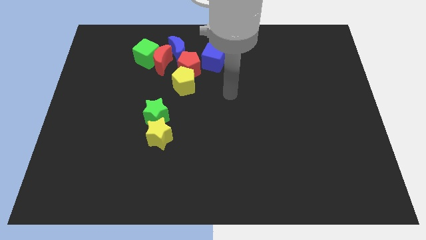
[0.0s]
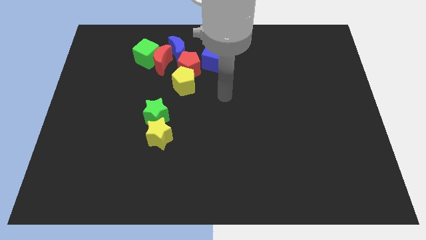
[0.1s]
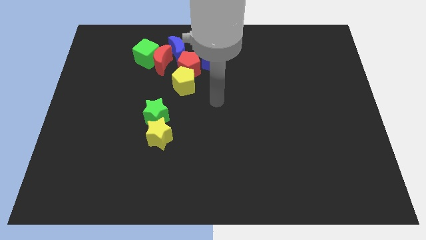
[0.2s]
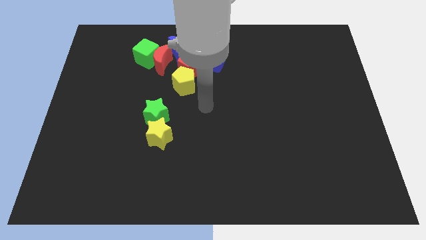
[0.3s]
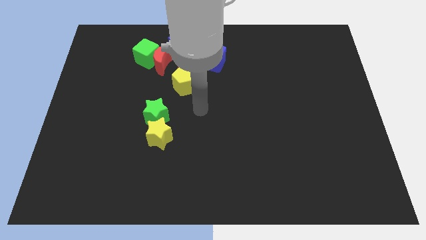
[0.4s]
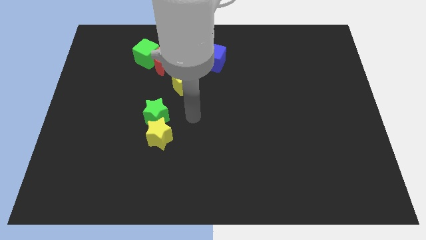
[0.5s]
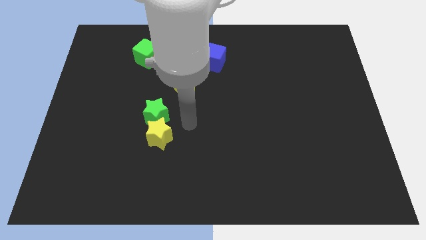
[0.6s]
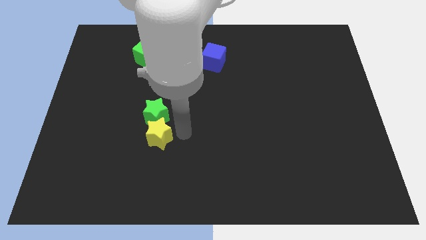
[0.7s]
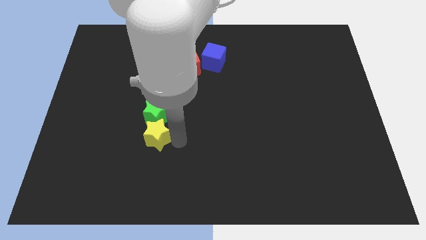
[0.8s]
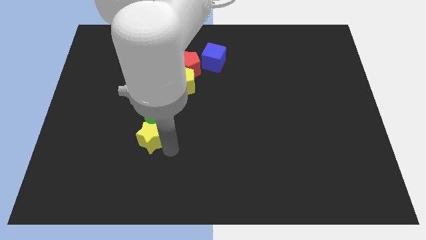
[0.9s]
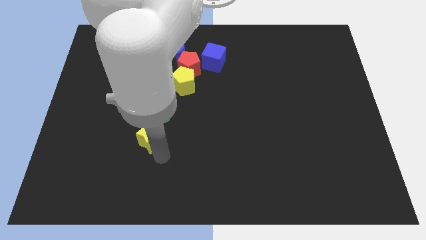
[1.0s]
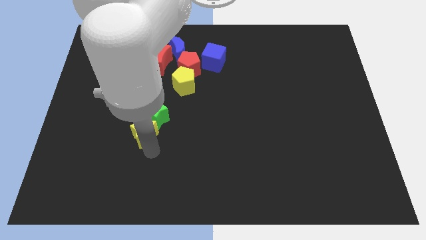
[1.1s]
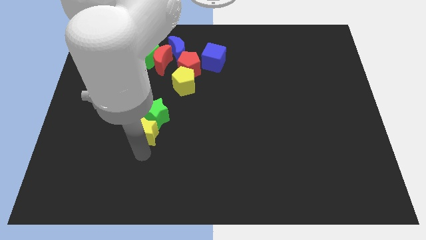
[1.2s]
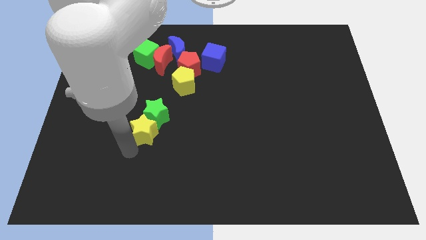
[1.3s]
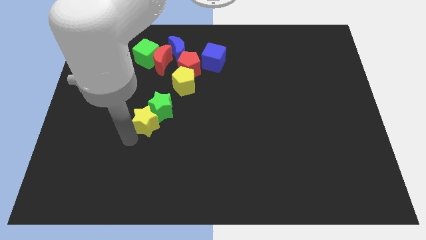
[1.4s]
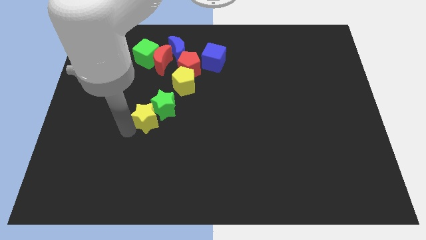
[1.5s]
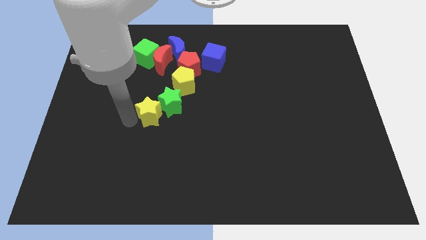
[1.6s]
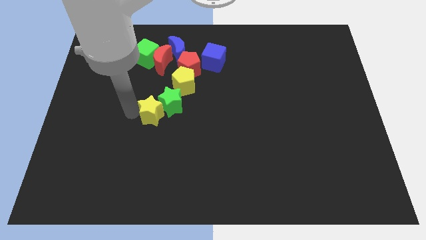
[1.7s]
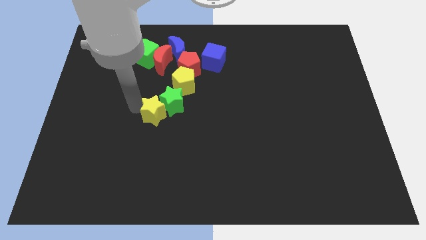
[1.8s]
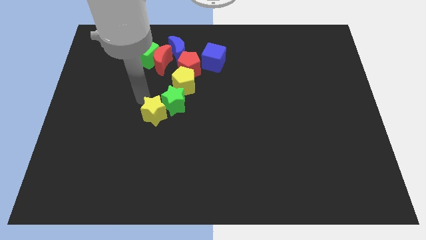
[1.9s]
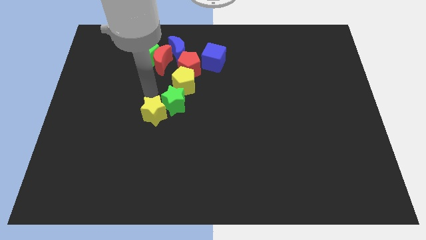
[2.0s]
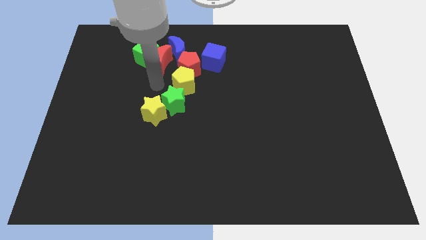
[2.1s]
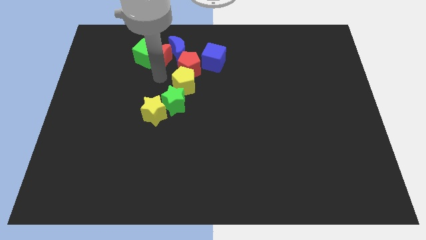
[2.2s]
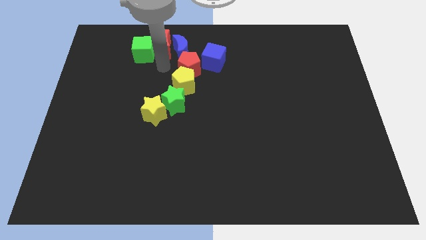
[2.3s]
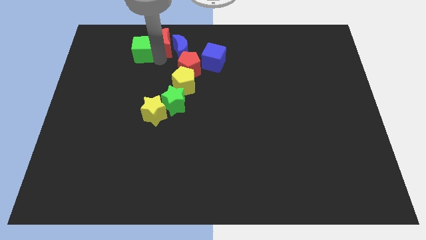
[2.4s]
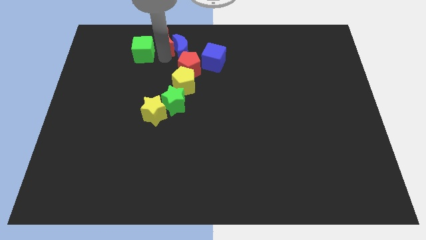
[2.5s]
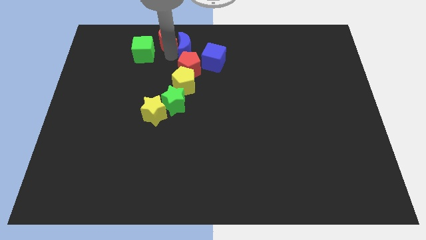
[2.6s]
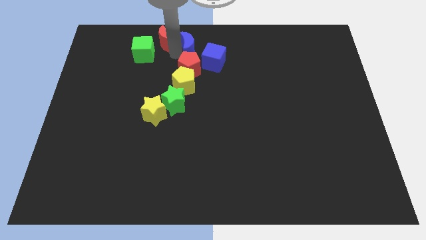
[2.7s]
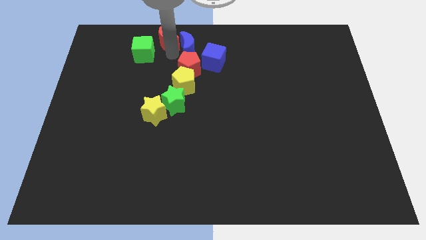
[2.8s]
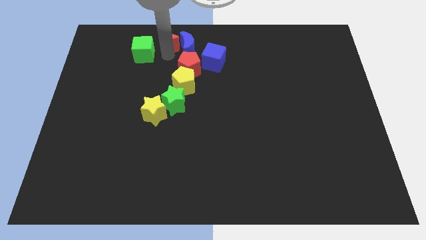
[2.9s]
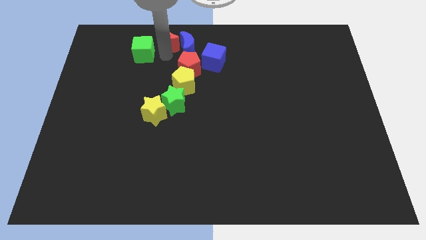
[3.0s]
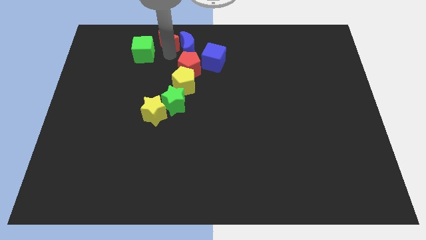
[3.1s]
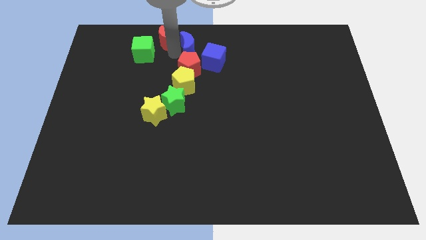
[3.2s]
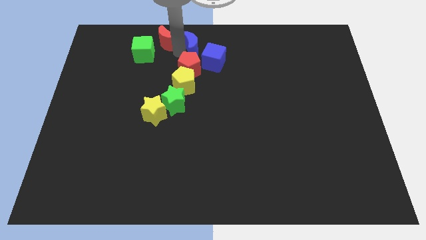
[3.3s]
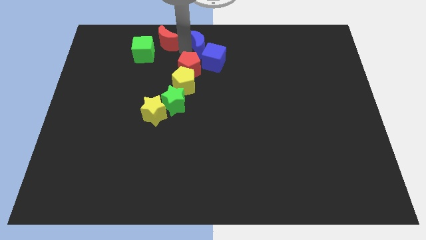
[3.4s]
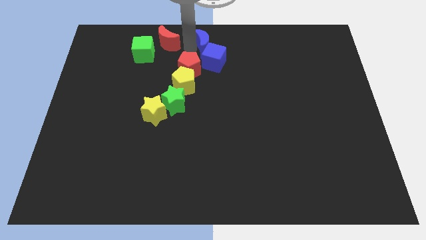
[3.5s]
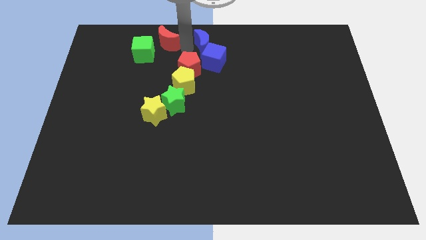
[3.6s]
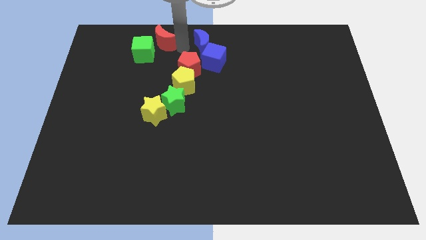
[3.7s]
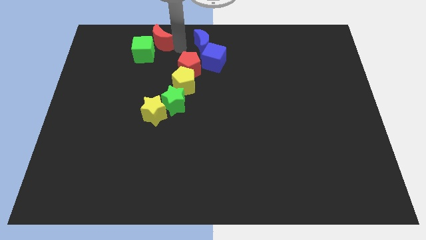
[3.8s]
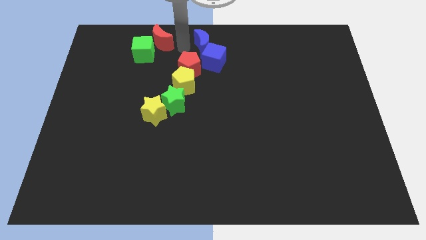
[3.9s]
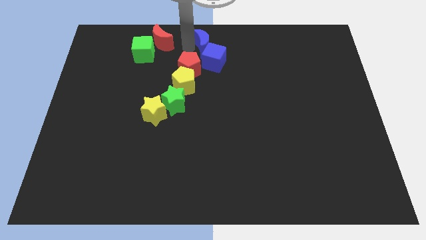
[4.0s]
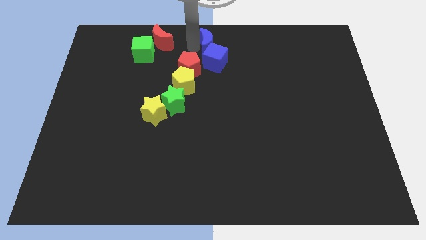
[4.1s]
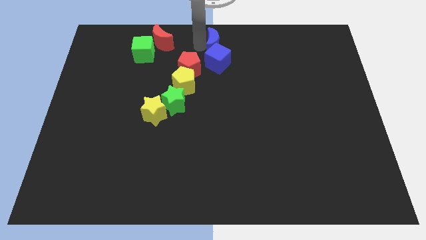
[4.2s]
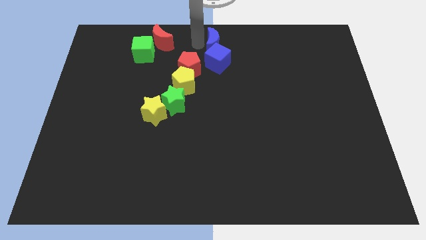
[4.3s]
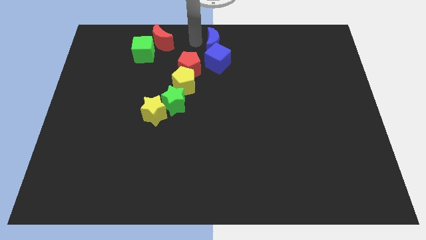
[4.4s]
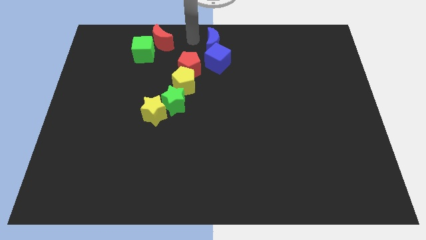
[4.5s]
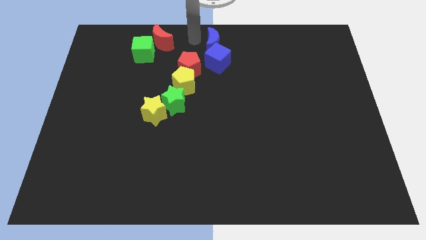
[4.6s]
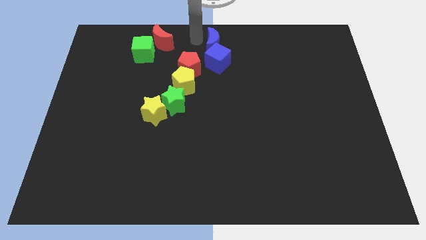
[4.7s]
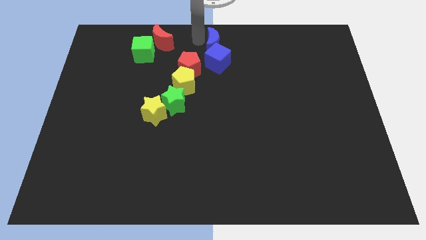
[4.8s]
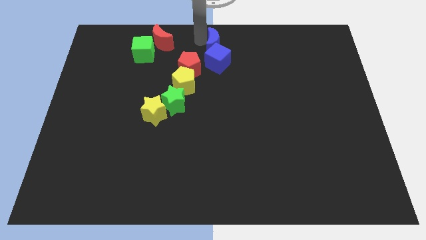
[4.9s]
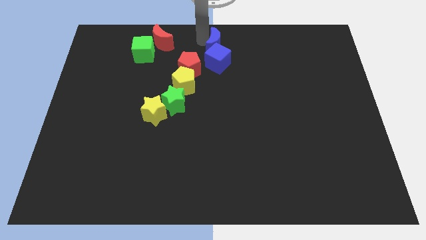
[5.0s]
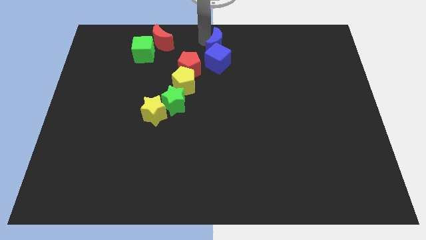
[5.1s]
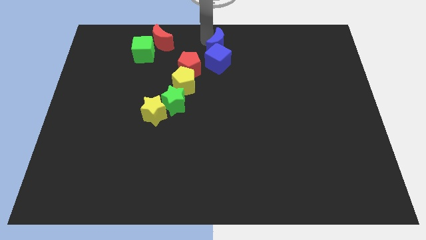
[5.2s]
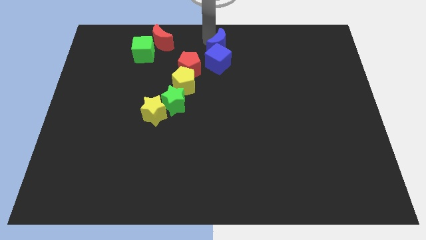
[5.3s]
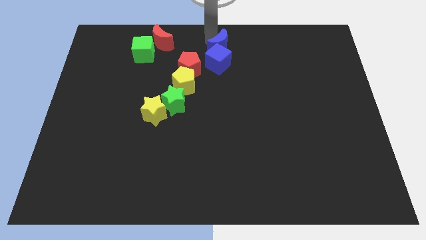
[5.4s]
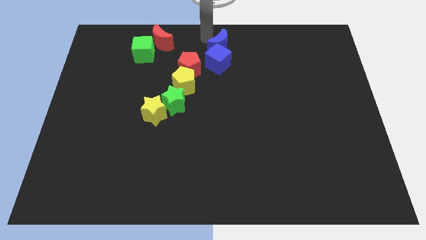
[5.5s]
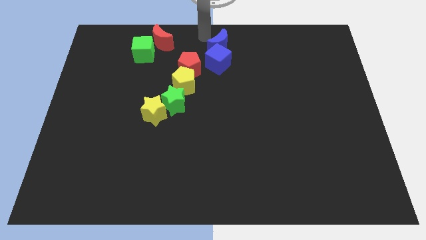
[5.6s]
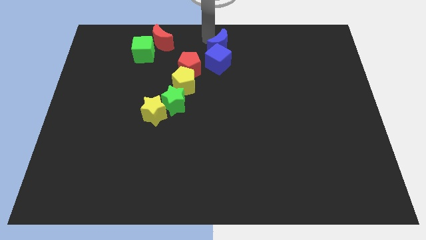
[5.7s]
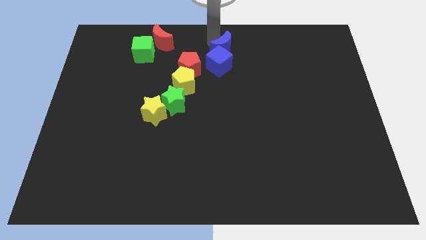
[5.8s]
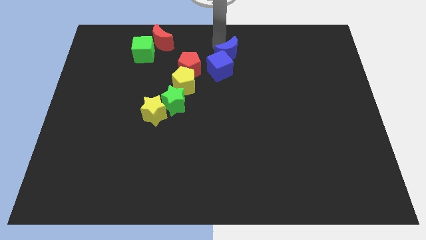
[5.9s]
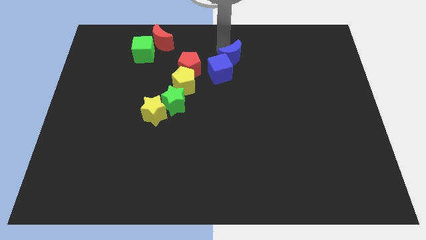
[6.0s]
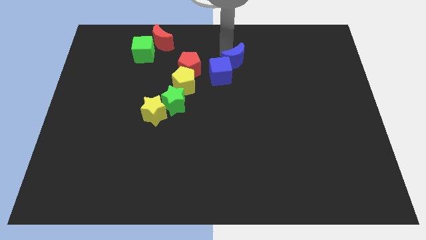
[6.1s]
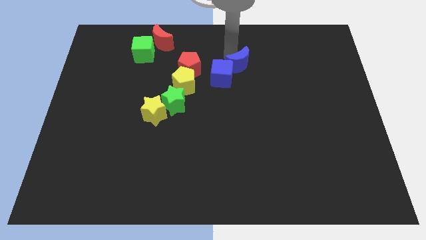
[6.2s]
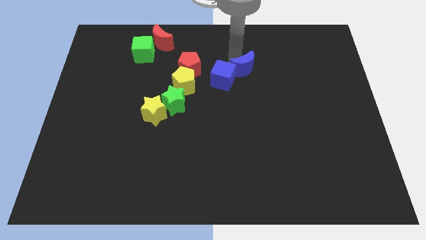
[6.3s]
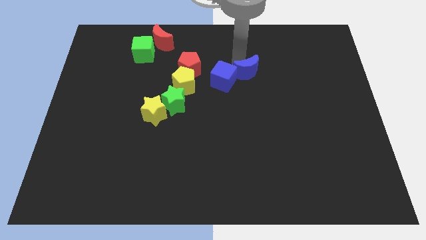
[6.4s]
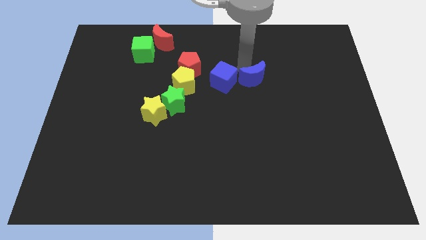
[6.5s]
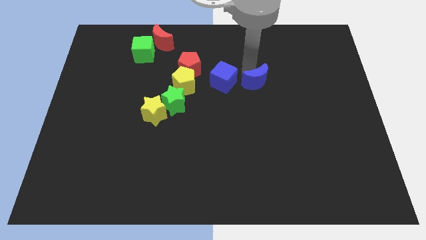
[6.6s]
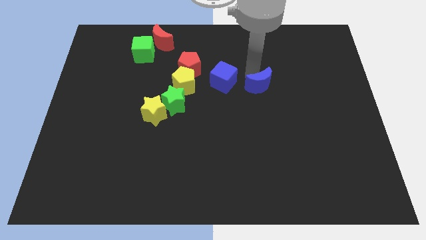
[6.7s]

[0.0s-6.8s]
push the blue moon down and right

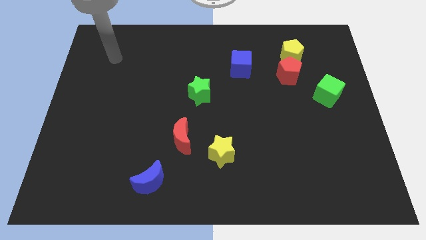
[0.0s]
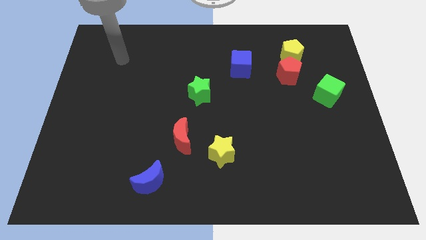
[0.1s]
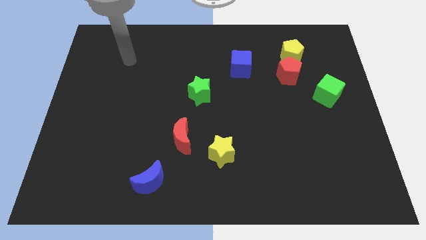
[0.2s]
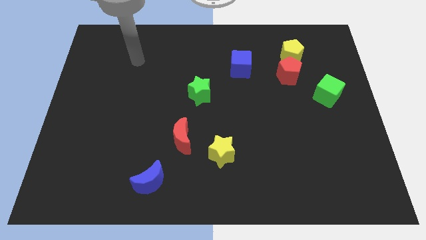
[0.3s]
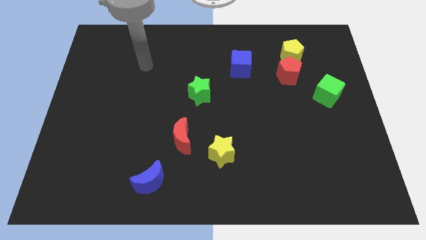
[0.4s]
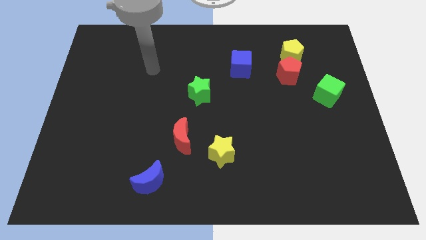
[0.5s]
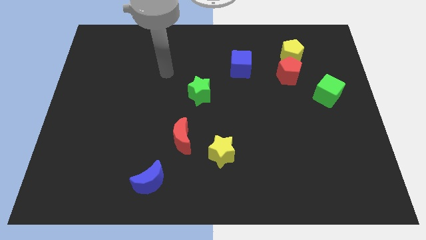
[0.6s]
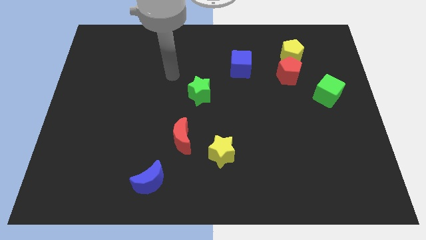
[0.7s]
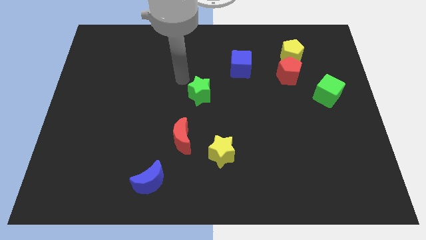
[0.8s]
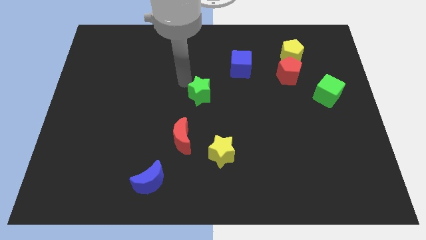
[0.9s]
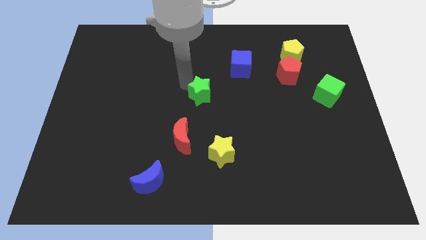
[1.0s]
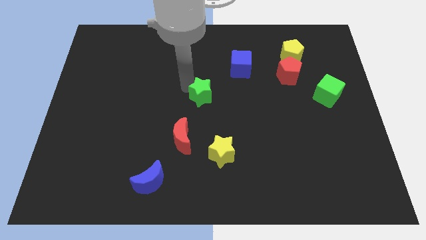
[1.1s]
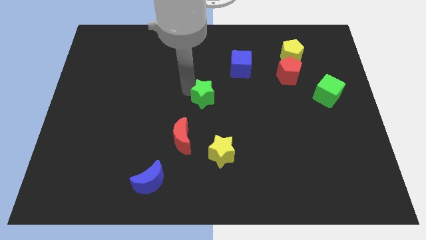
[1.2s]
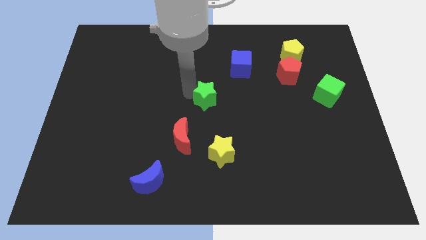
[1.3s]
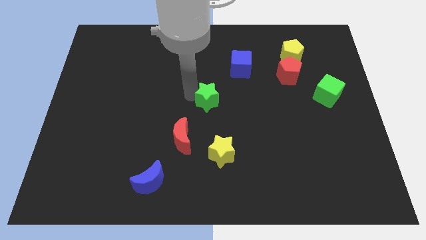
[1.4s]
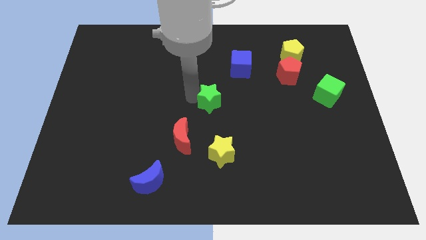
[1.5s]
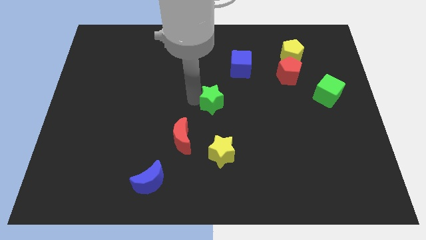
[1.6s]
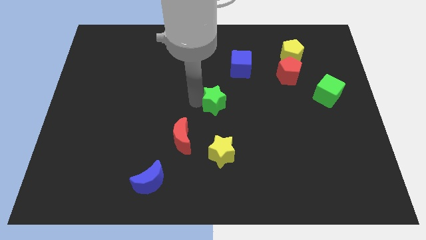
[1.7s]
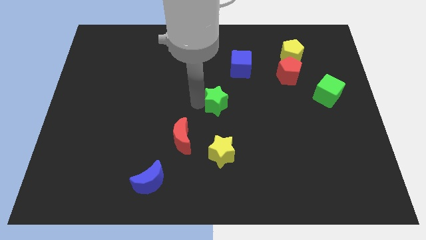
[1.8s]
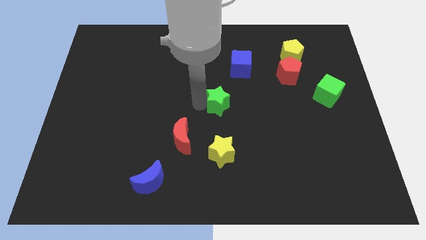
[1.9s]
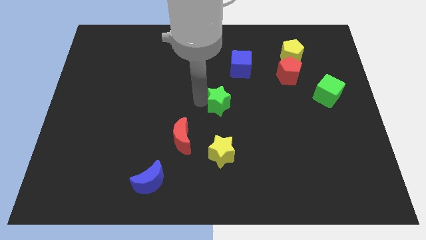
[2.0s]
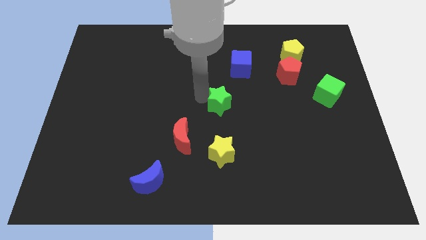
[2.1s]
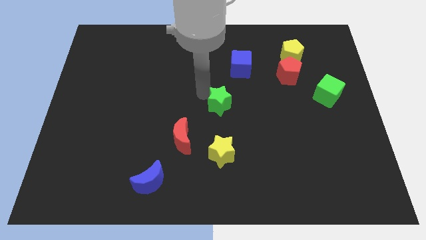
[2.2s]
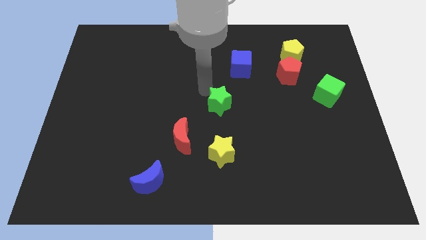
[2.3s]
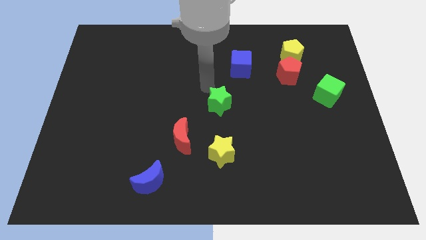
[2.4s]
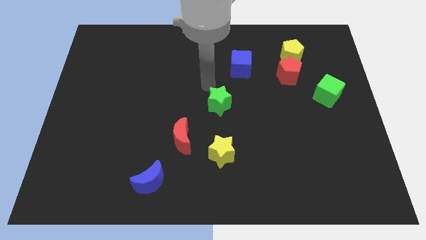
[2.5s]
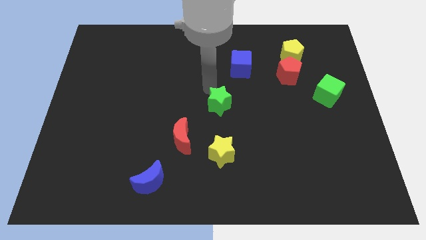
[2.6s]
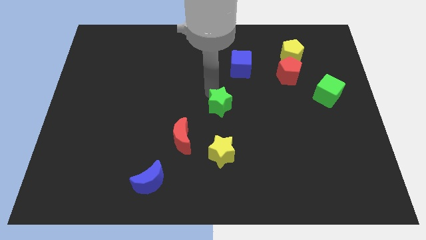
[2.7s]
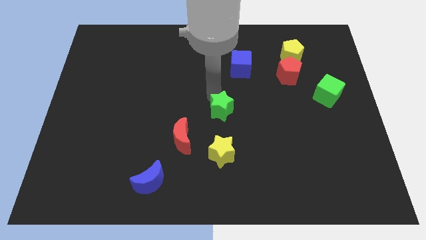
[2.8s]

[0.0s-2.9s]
push the green star a little bit downwards and then to the right
